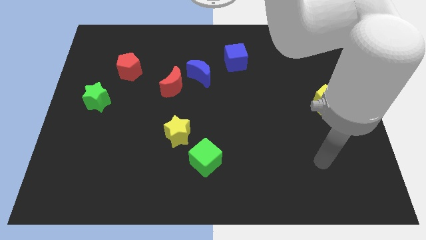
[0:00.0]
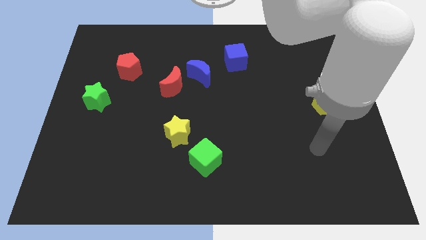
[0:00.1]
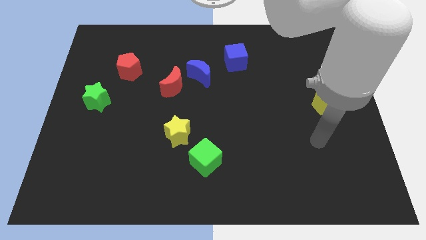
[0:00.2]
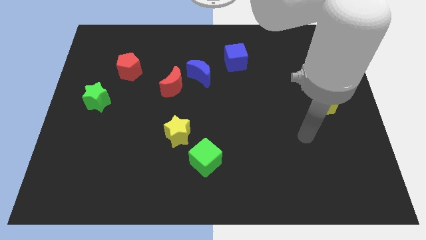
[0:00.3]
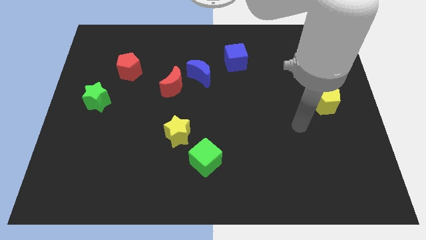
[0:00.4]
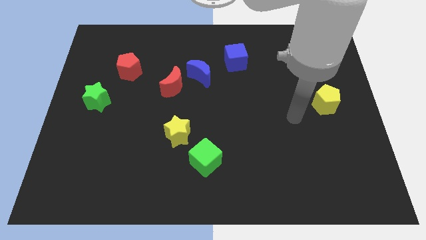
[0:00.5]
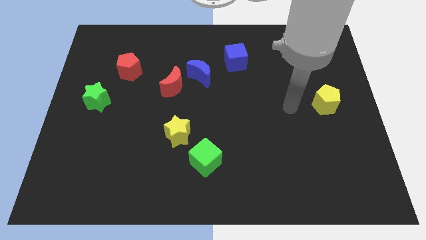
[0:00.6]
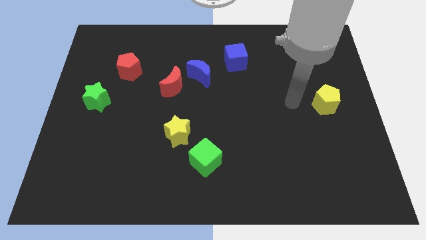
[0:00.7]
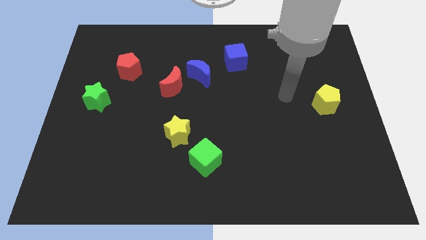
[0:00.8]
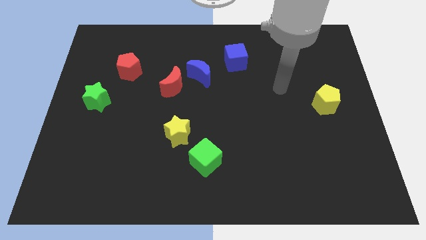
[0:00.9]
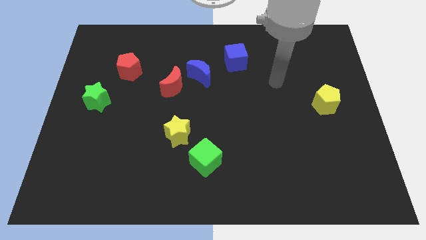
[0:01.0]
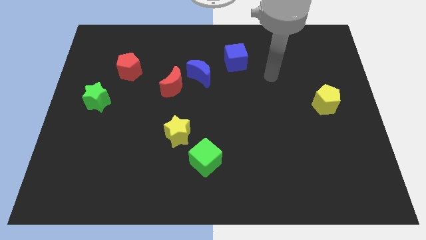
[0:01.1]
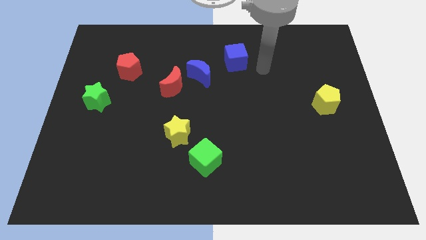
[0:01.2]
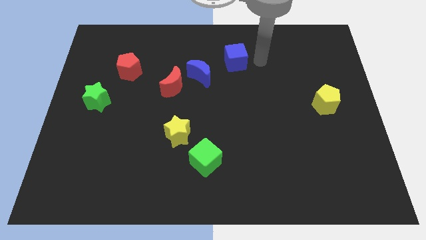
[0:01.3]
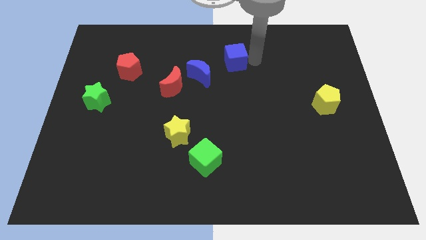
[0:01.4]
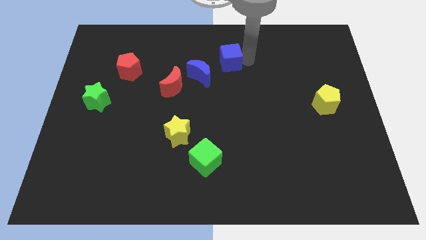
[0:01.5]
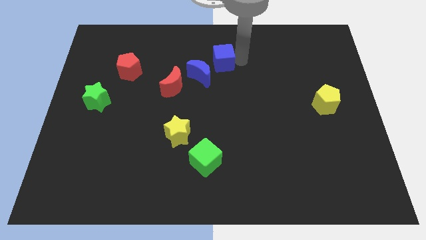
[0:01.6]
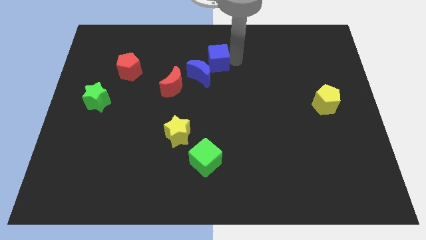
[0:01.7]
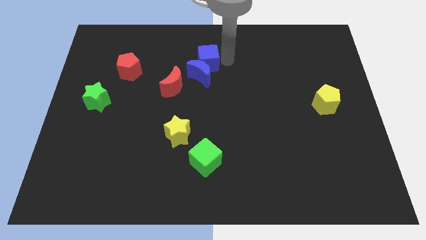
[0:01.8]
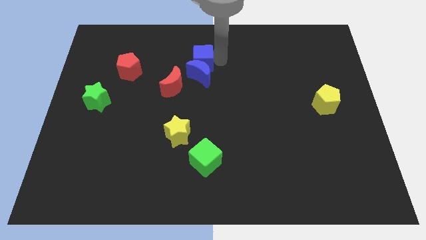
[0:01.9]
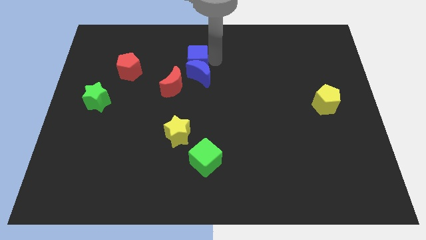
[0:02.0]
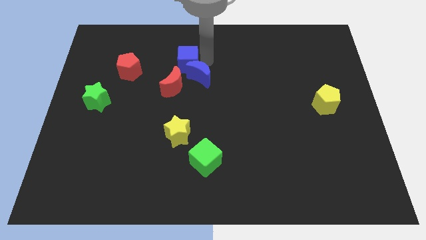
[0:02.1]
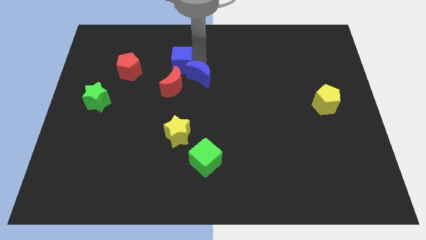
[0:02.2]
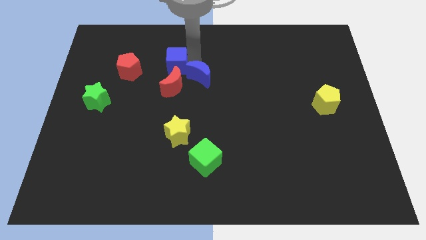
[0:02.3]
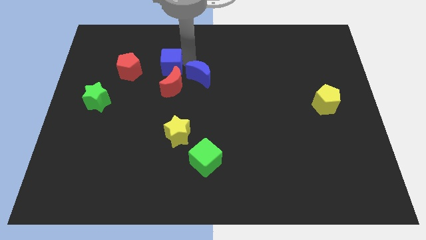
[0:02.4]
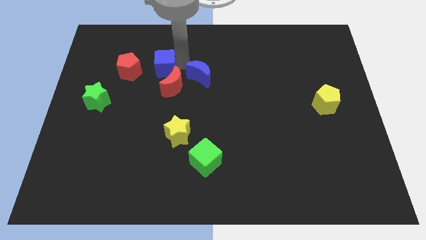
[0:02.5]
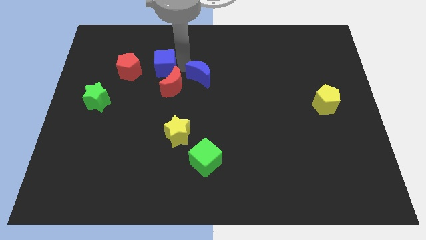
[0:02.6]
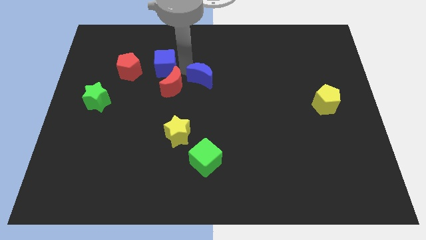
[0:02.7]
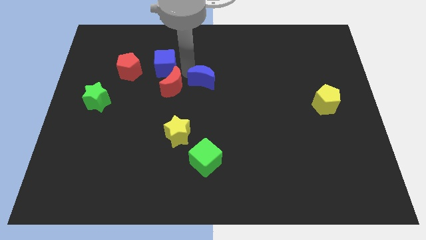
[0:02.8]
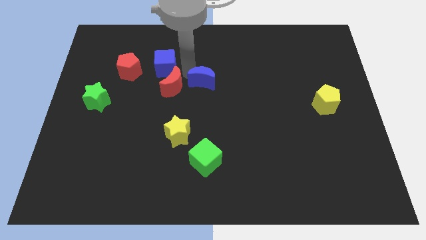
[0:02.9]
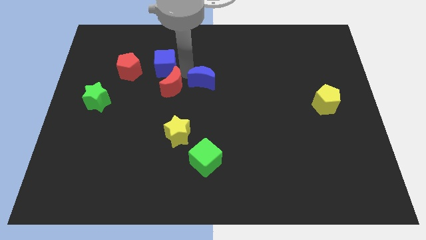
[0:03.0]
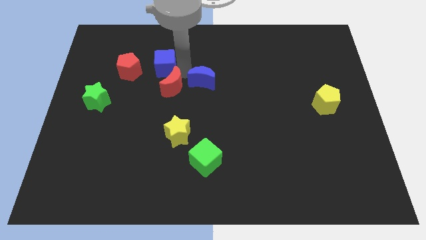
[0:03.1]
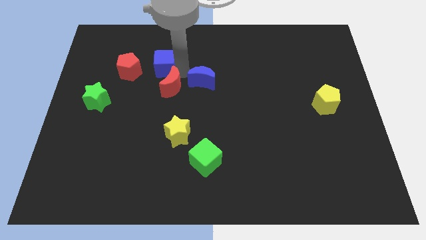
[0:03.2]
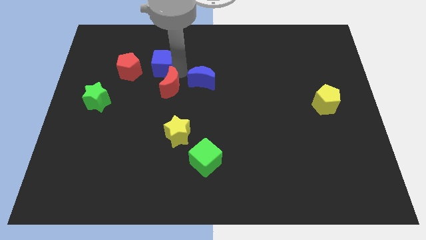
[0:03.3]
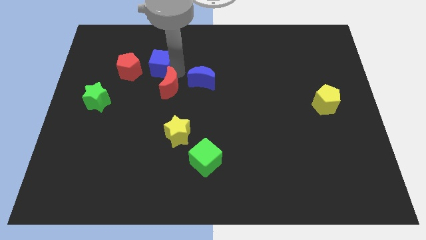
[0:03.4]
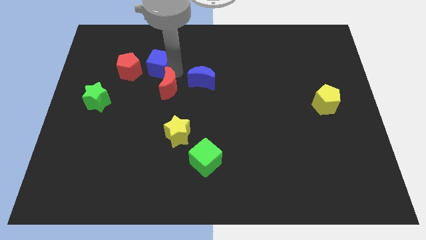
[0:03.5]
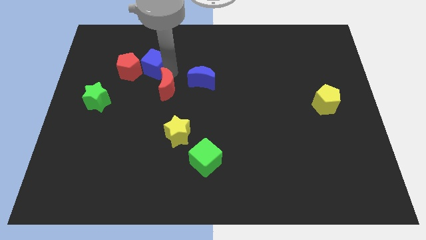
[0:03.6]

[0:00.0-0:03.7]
move the blue cube left

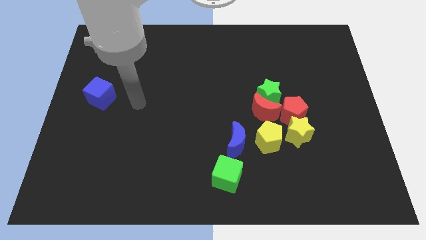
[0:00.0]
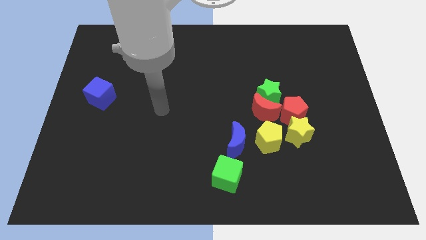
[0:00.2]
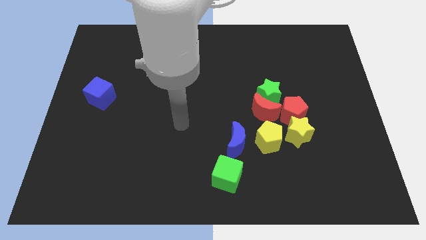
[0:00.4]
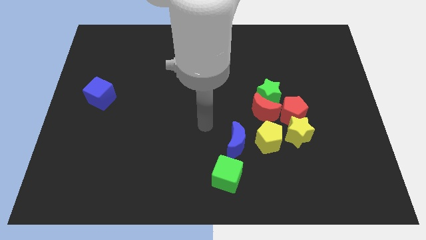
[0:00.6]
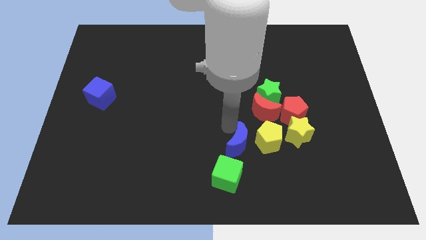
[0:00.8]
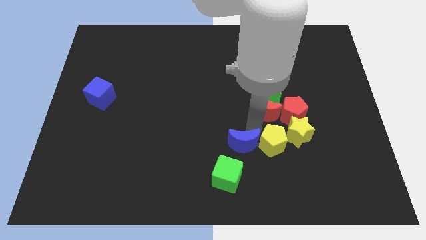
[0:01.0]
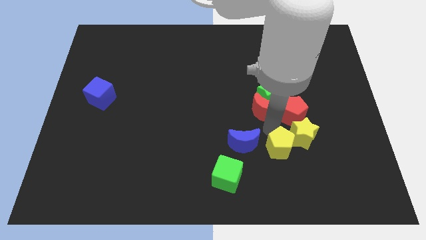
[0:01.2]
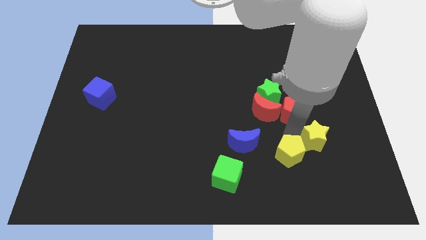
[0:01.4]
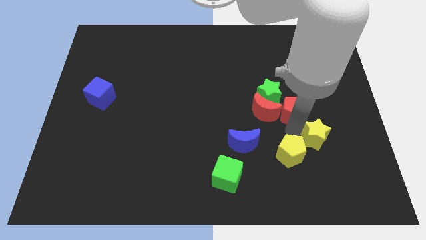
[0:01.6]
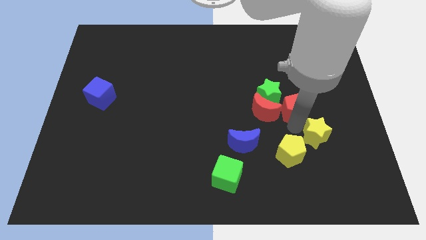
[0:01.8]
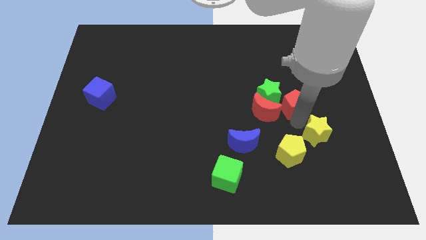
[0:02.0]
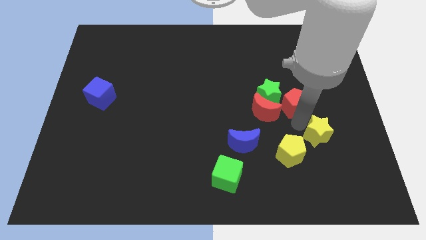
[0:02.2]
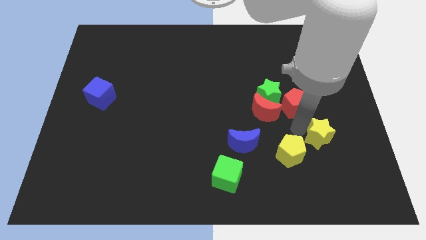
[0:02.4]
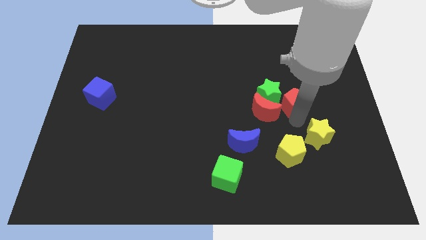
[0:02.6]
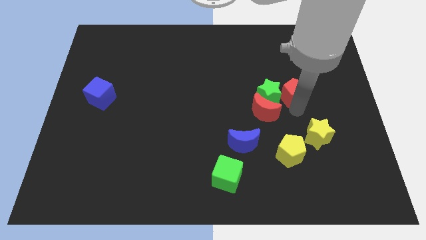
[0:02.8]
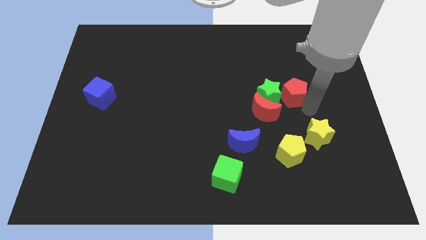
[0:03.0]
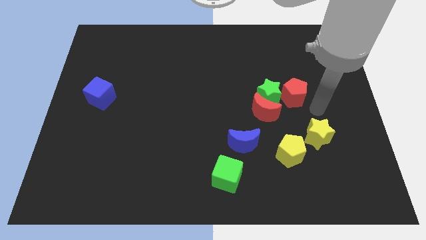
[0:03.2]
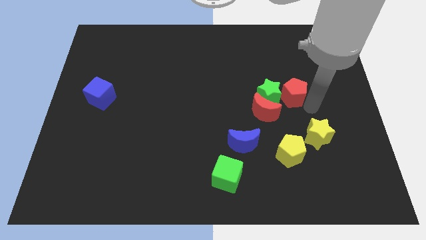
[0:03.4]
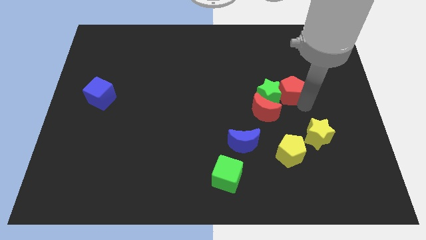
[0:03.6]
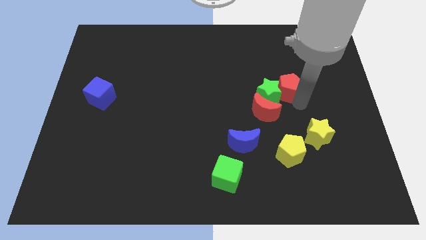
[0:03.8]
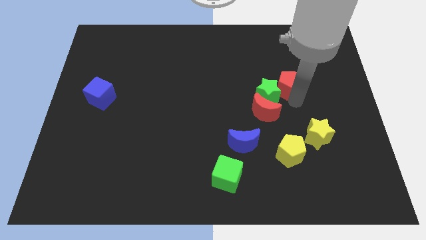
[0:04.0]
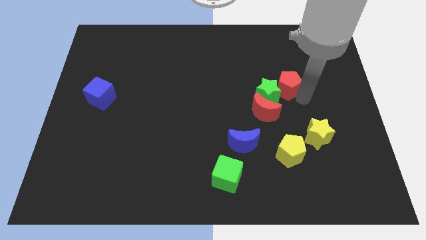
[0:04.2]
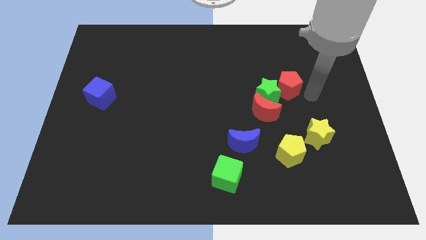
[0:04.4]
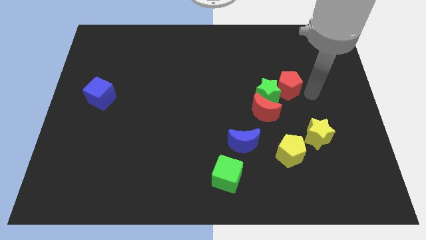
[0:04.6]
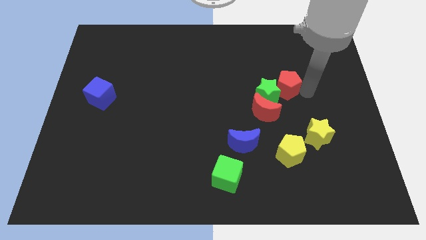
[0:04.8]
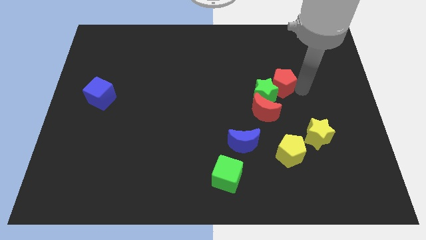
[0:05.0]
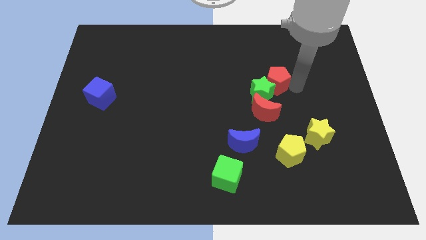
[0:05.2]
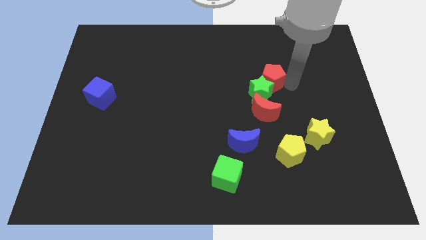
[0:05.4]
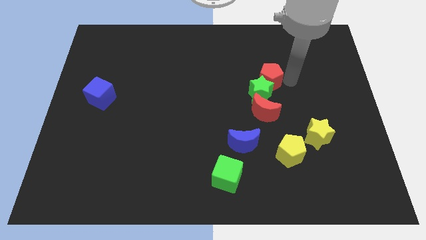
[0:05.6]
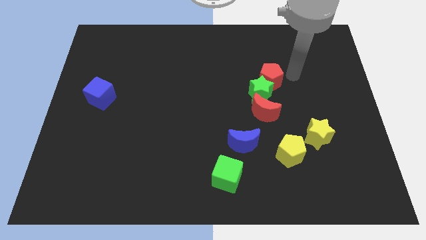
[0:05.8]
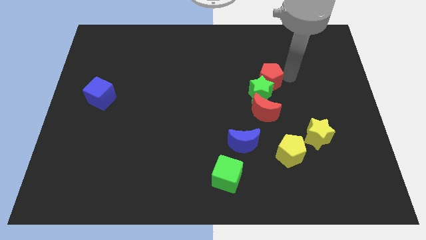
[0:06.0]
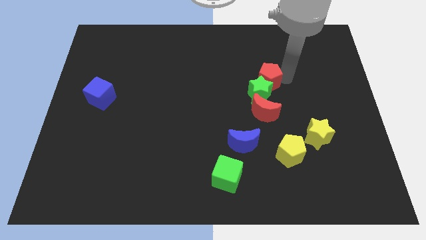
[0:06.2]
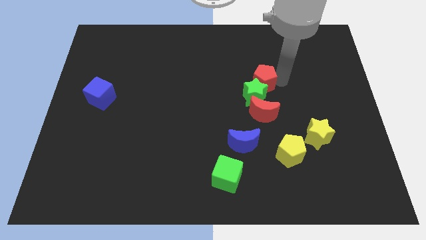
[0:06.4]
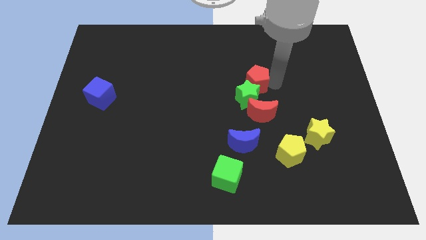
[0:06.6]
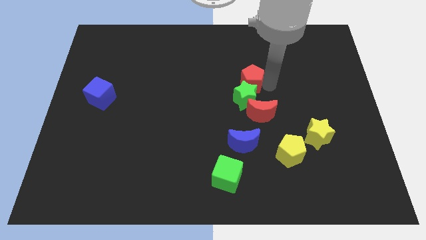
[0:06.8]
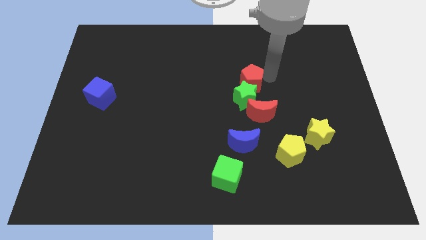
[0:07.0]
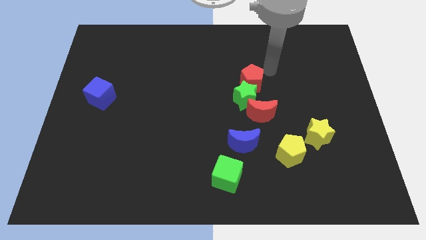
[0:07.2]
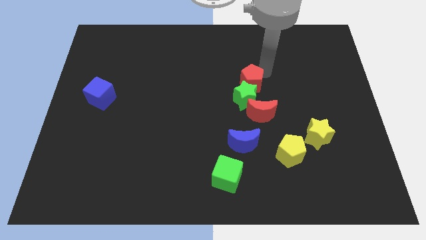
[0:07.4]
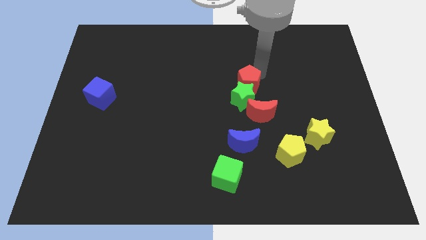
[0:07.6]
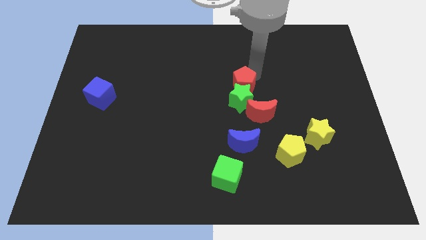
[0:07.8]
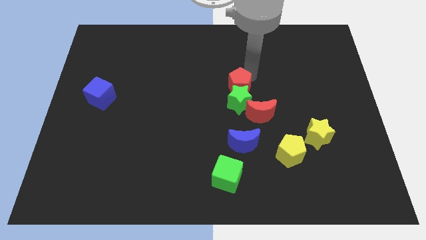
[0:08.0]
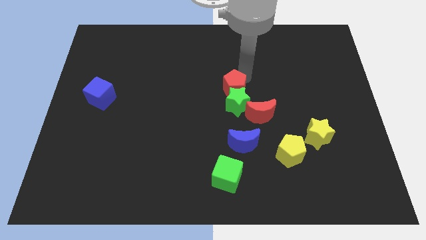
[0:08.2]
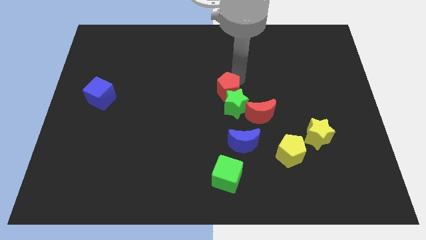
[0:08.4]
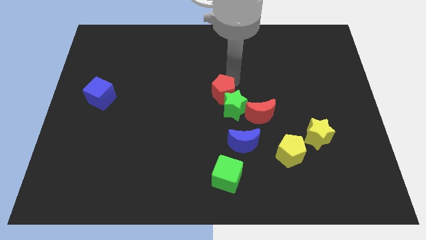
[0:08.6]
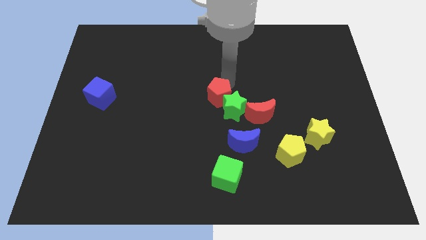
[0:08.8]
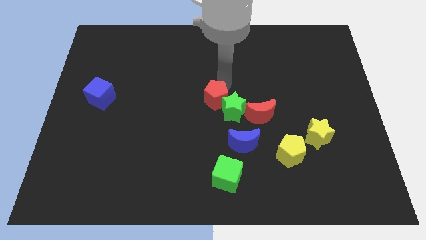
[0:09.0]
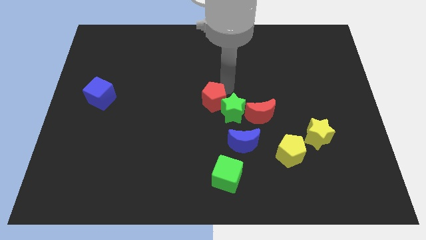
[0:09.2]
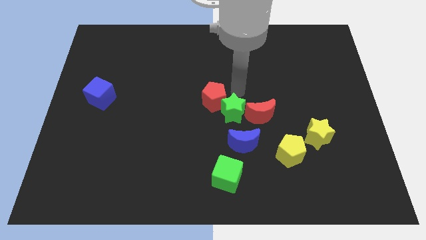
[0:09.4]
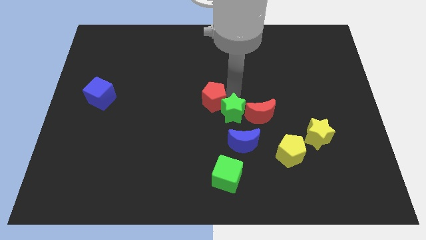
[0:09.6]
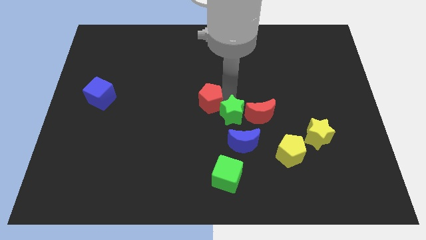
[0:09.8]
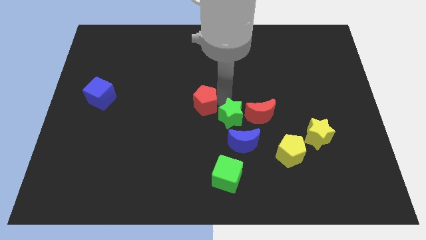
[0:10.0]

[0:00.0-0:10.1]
push the red pentagon left
